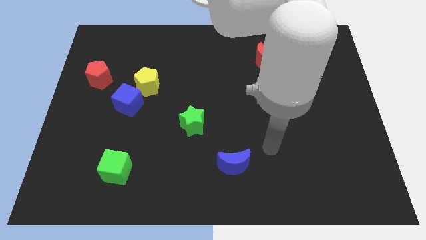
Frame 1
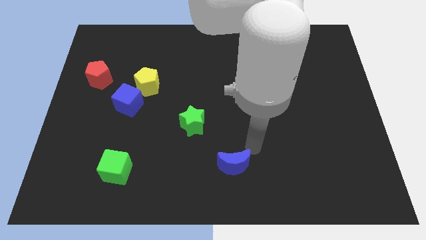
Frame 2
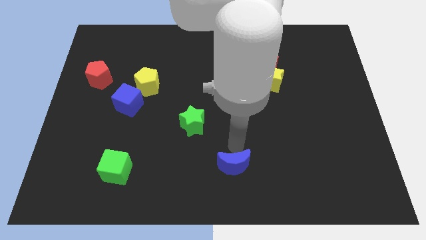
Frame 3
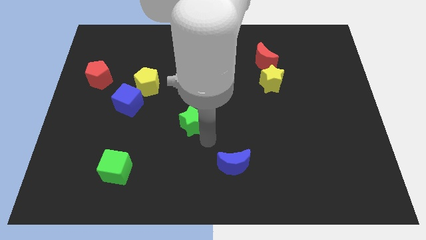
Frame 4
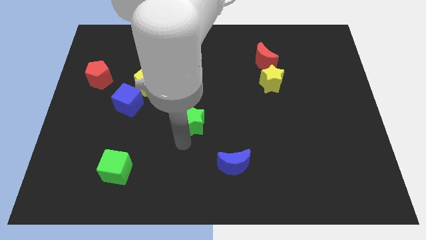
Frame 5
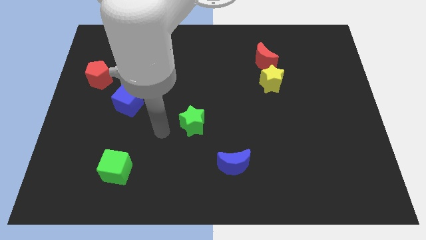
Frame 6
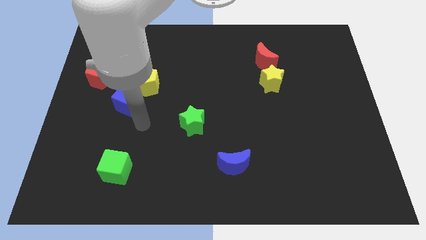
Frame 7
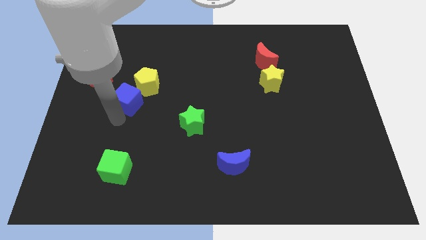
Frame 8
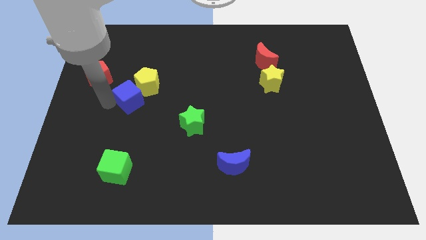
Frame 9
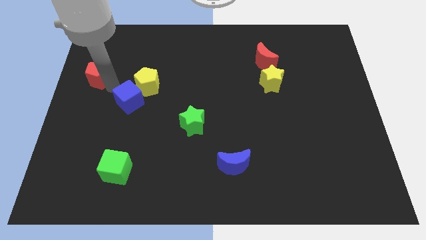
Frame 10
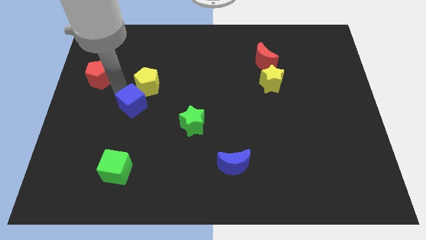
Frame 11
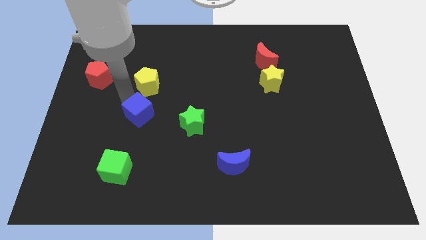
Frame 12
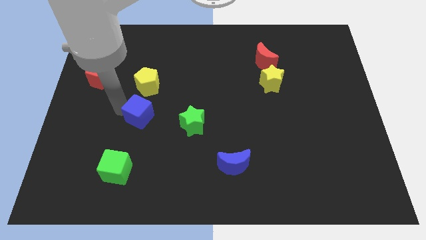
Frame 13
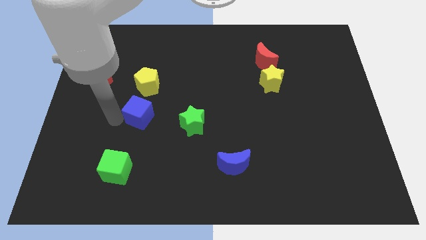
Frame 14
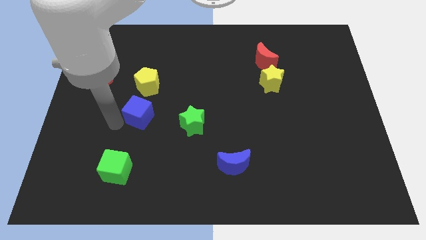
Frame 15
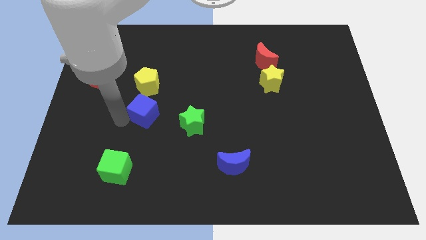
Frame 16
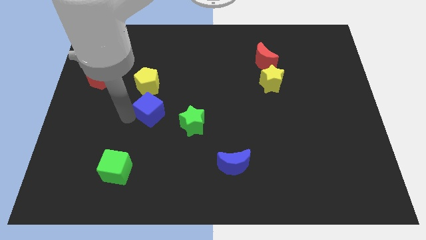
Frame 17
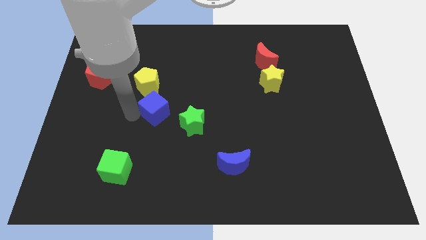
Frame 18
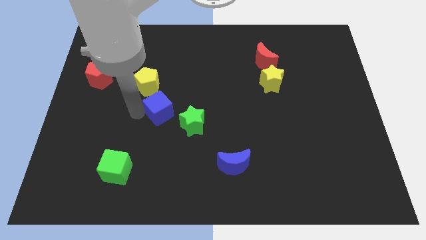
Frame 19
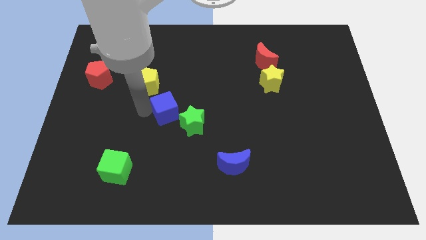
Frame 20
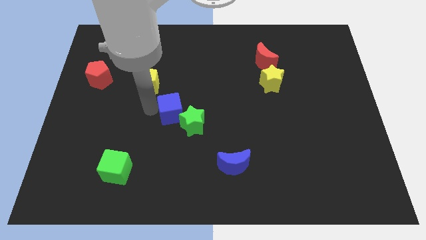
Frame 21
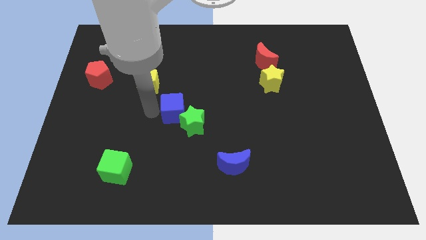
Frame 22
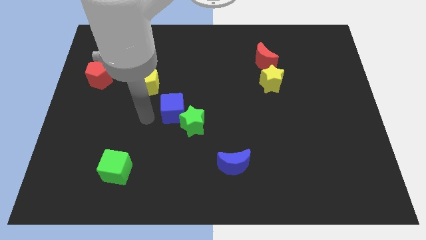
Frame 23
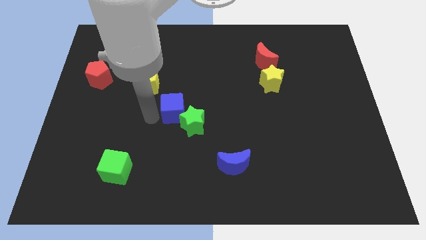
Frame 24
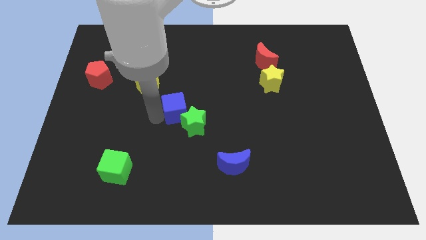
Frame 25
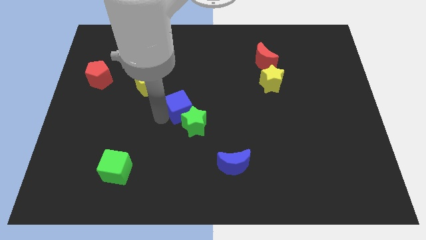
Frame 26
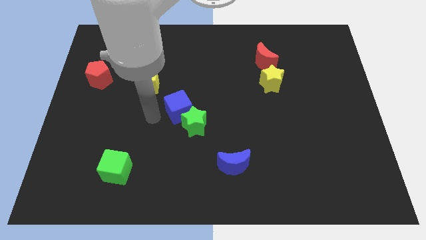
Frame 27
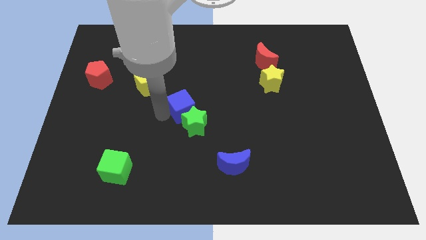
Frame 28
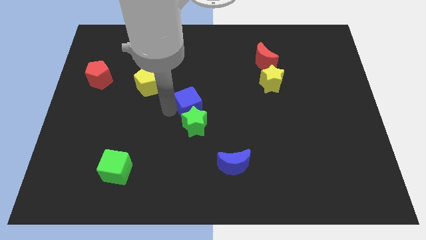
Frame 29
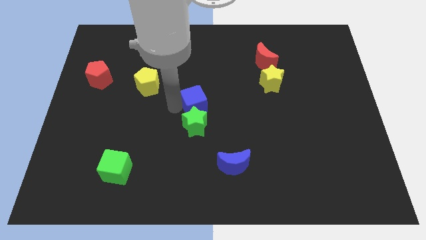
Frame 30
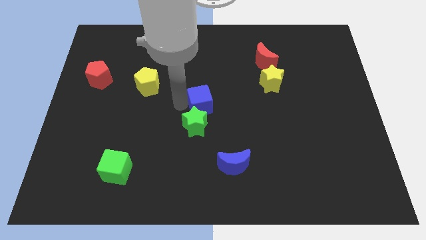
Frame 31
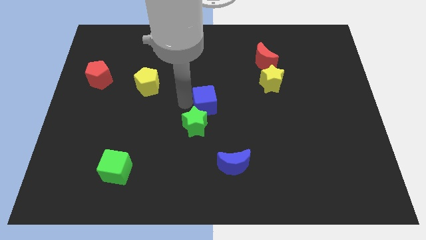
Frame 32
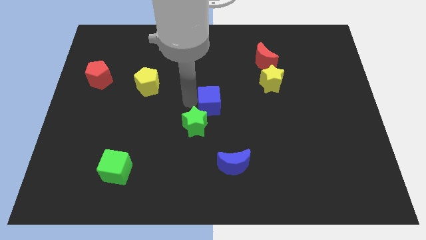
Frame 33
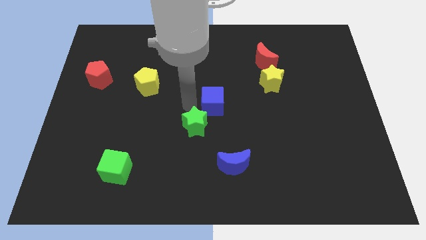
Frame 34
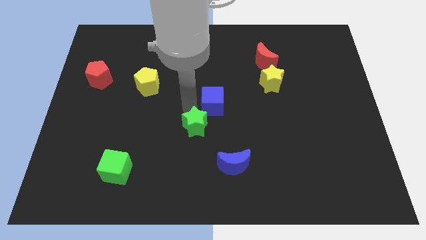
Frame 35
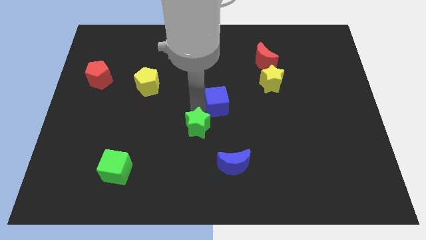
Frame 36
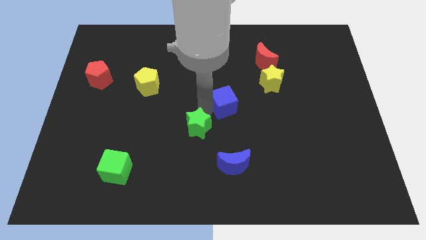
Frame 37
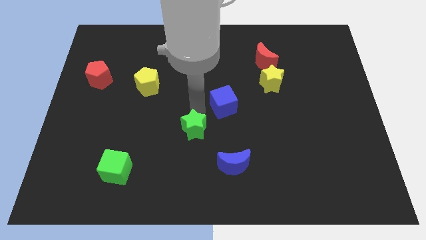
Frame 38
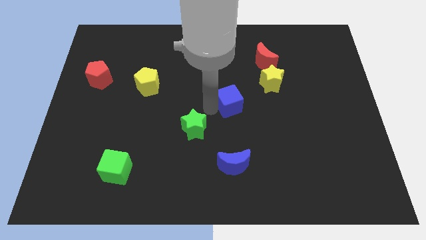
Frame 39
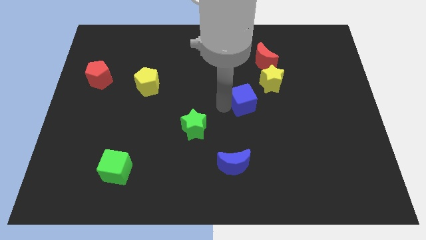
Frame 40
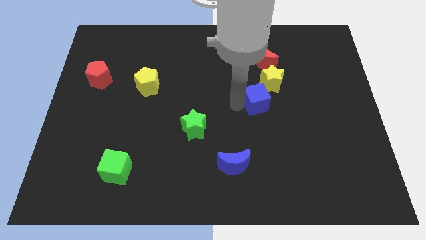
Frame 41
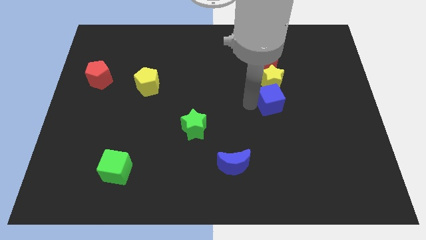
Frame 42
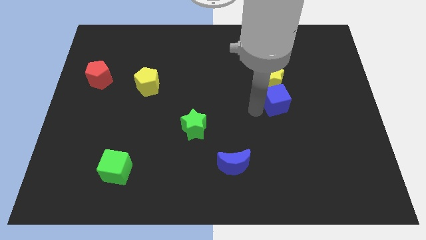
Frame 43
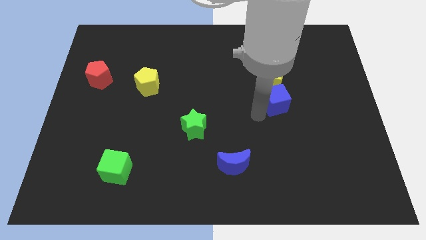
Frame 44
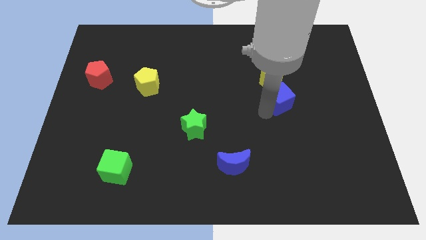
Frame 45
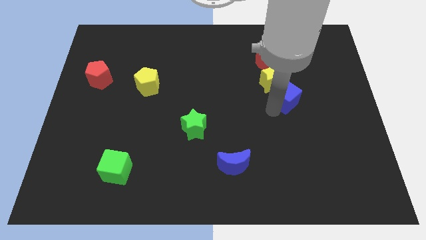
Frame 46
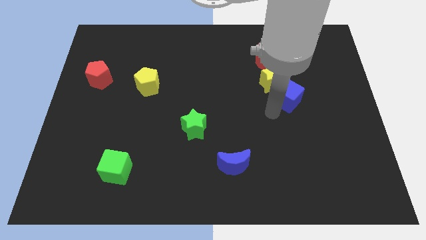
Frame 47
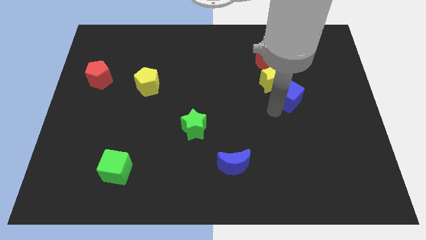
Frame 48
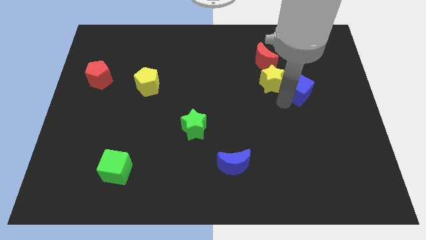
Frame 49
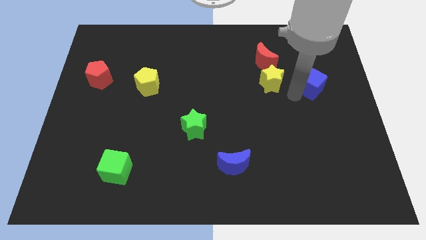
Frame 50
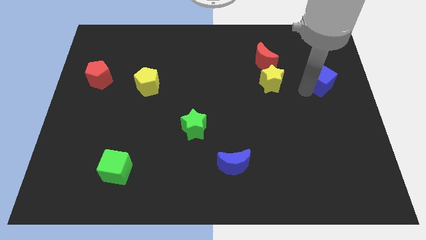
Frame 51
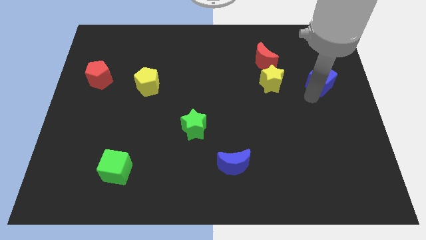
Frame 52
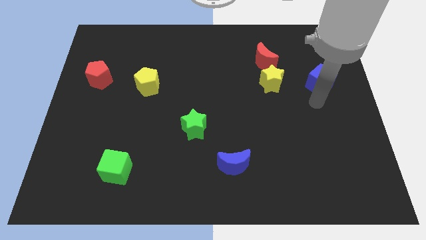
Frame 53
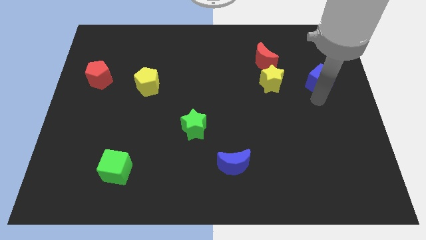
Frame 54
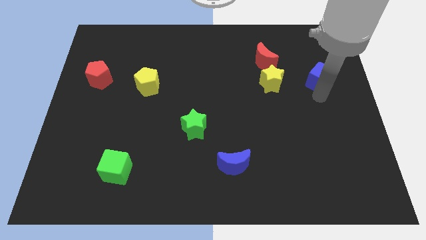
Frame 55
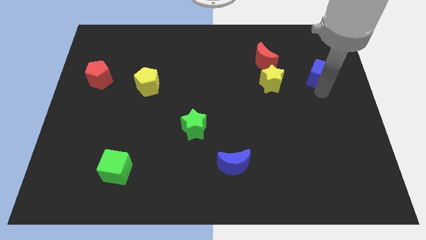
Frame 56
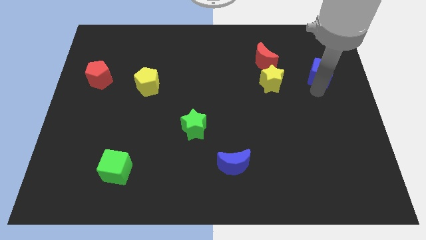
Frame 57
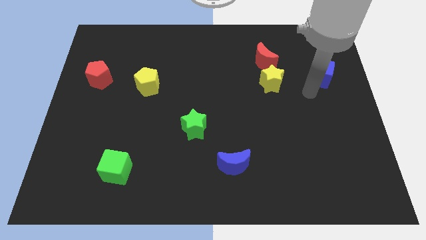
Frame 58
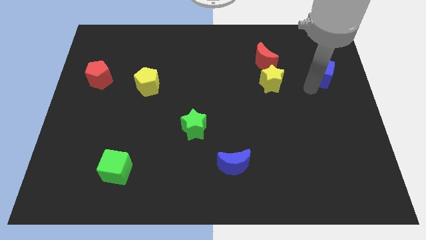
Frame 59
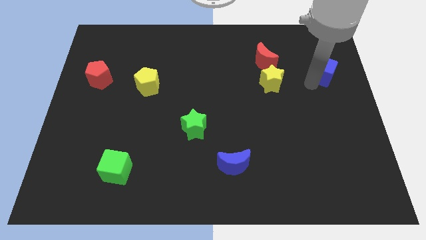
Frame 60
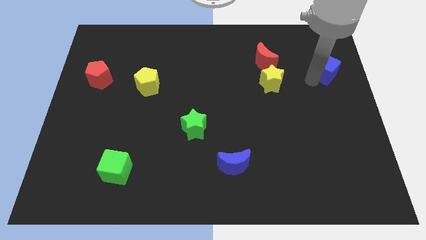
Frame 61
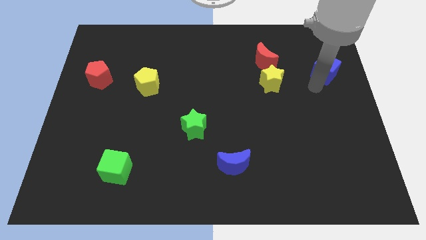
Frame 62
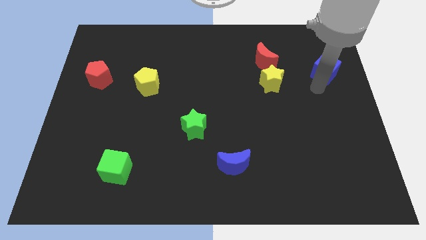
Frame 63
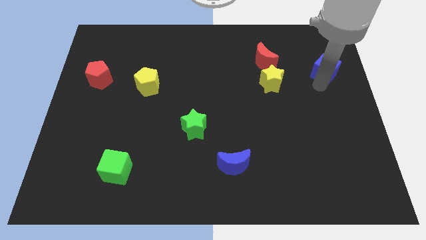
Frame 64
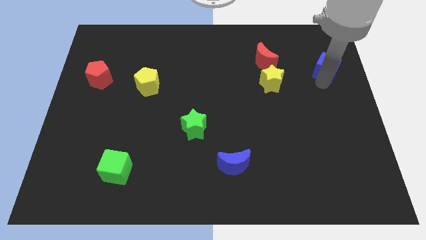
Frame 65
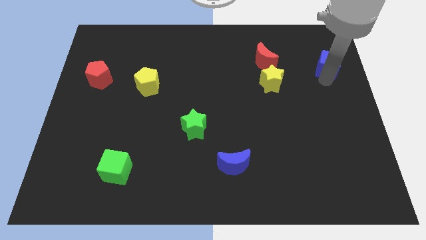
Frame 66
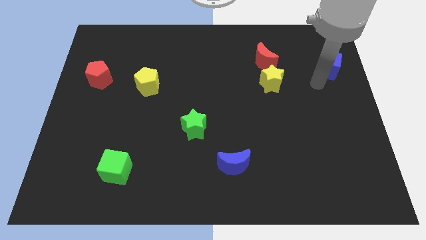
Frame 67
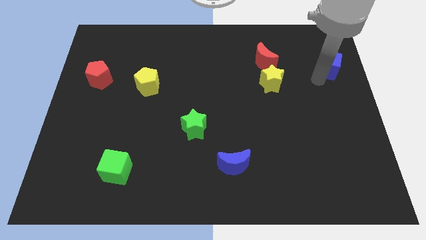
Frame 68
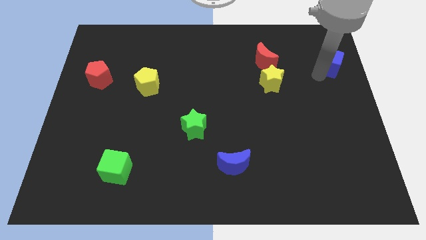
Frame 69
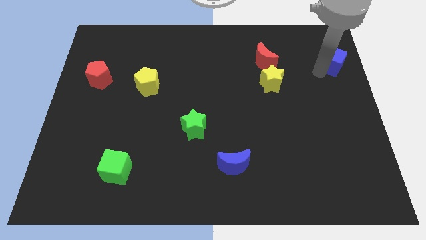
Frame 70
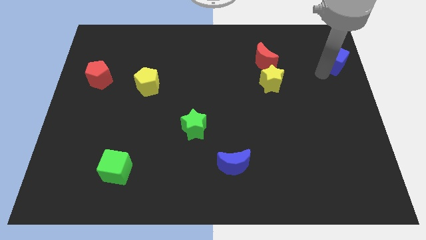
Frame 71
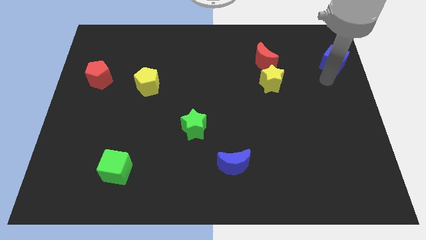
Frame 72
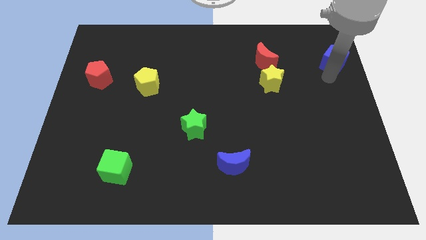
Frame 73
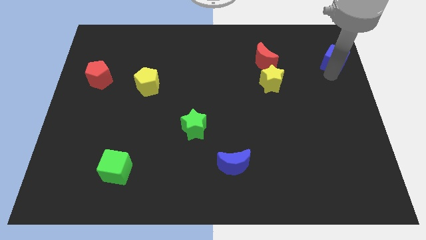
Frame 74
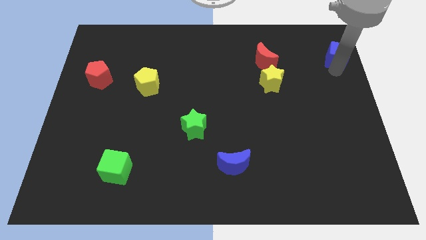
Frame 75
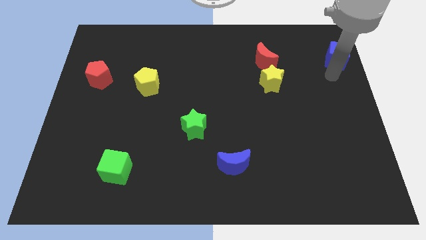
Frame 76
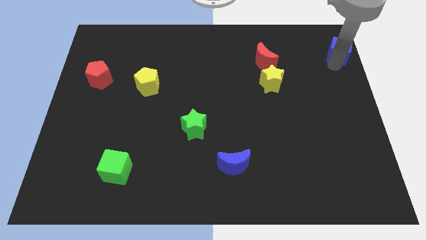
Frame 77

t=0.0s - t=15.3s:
slide the blue cube to the top right of the board

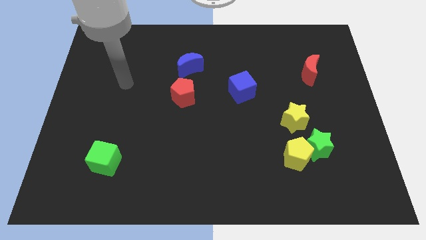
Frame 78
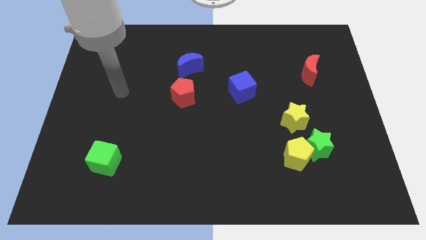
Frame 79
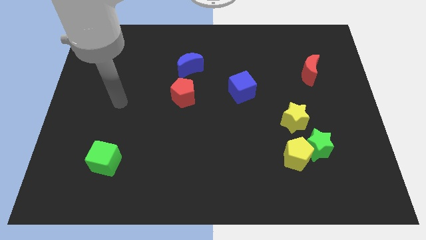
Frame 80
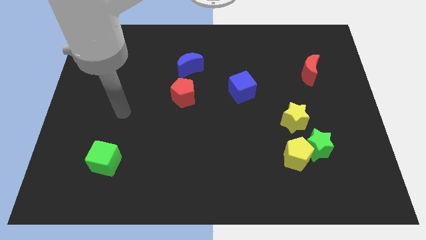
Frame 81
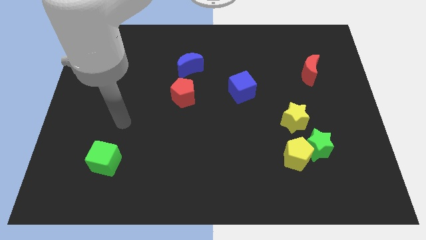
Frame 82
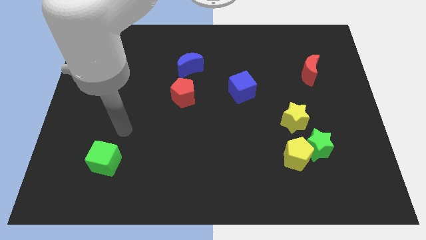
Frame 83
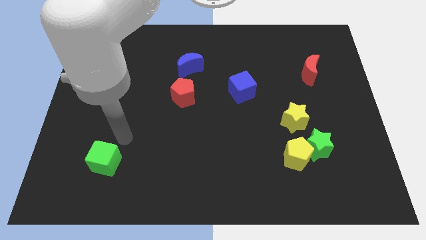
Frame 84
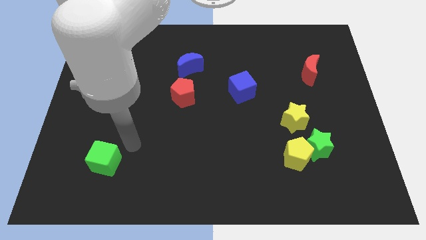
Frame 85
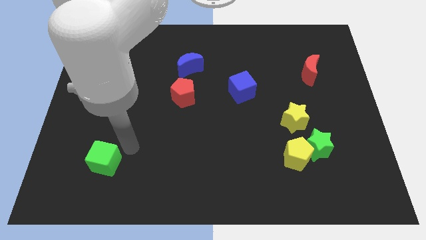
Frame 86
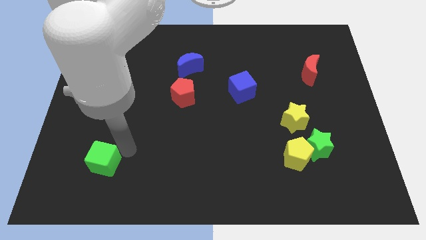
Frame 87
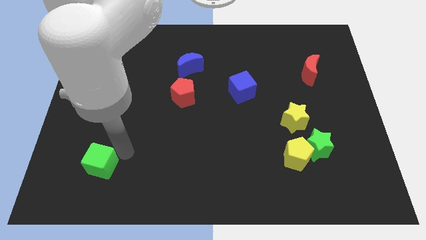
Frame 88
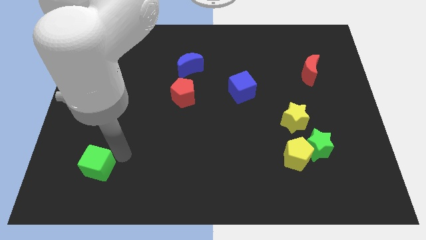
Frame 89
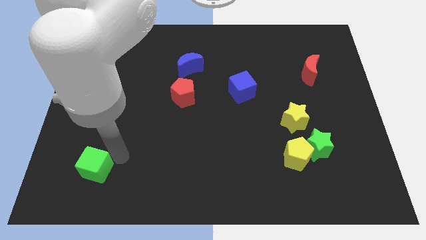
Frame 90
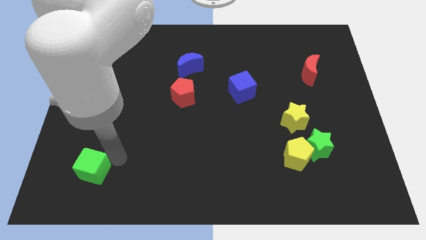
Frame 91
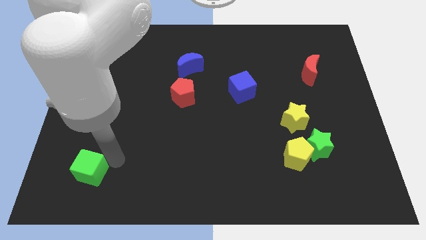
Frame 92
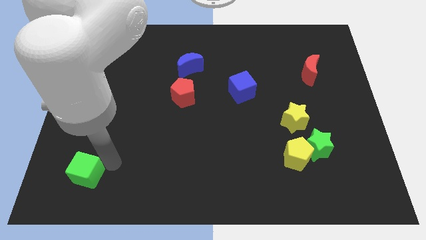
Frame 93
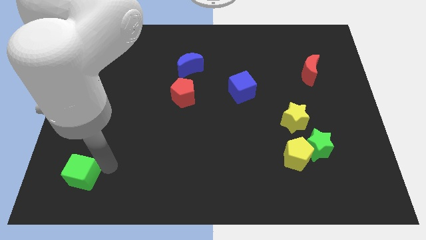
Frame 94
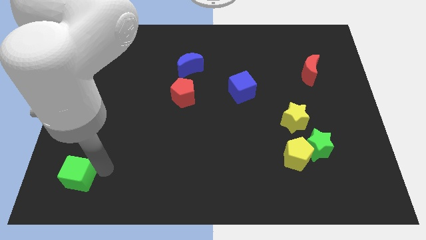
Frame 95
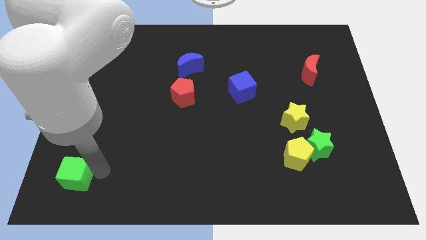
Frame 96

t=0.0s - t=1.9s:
push the green cube to the bottom left of the board
